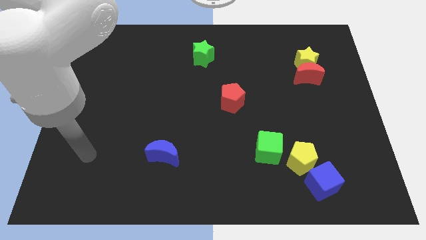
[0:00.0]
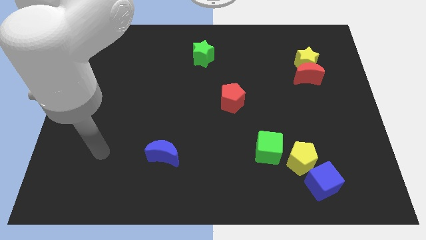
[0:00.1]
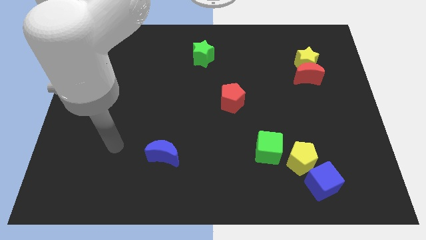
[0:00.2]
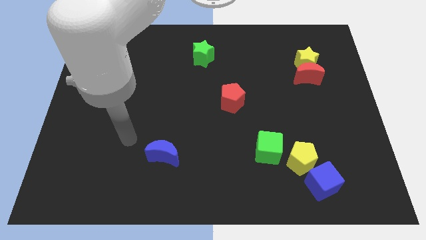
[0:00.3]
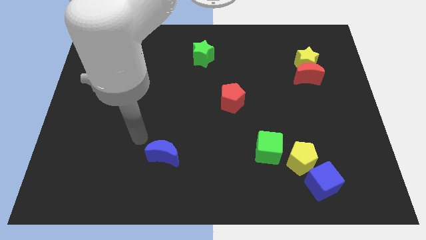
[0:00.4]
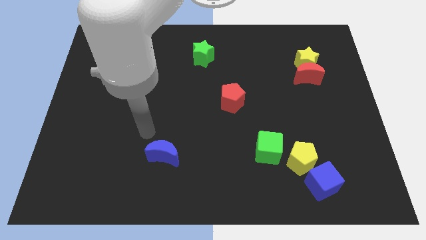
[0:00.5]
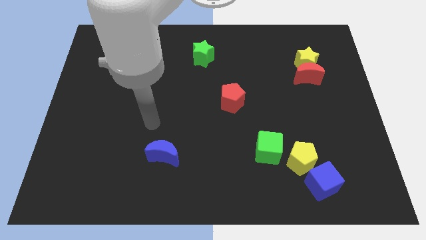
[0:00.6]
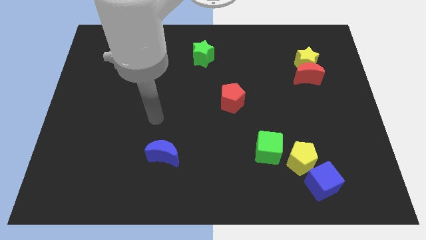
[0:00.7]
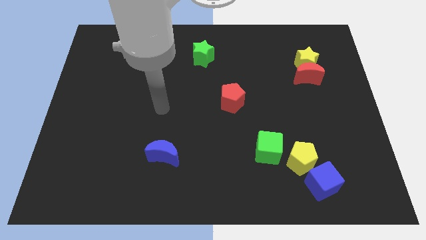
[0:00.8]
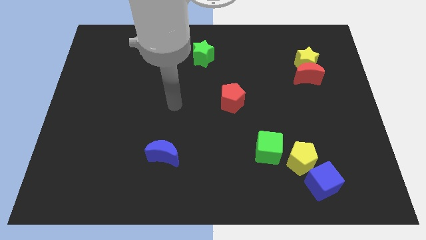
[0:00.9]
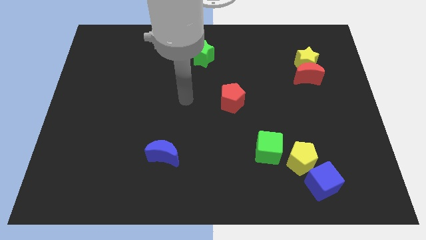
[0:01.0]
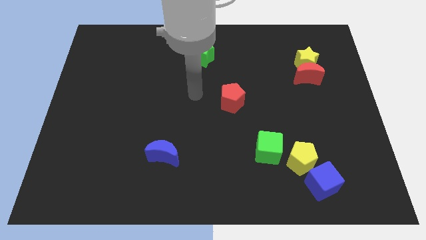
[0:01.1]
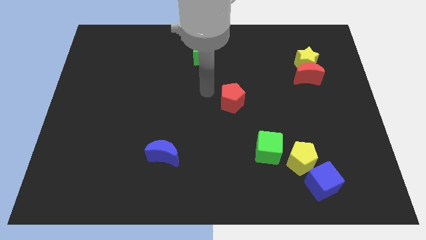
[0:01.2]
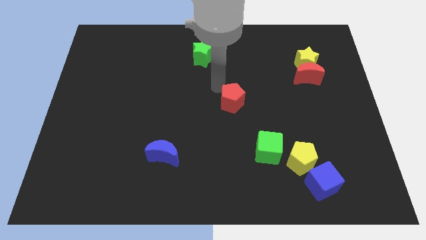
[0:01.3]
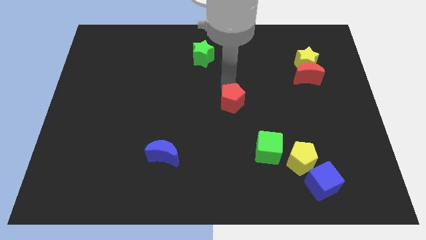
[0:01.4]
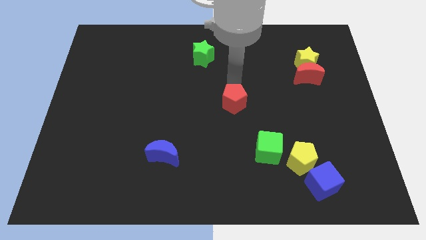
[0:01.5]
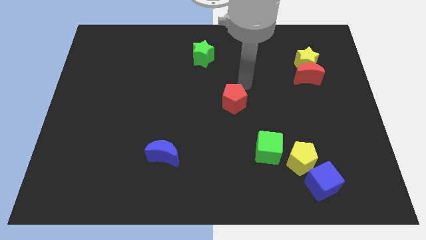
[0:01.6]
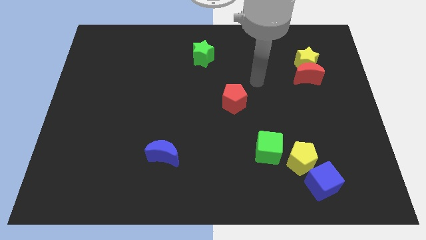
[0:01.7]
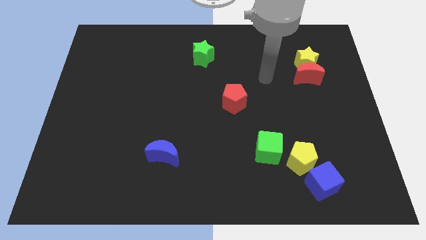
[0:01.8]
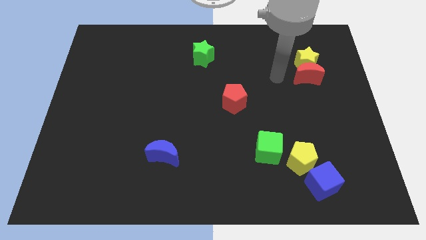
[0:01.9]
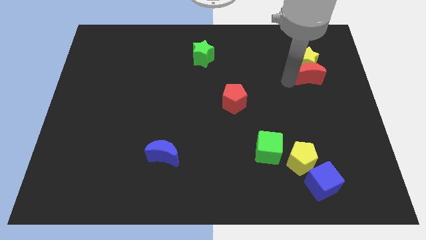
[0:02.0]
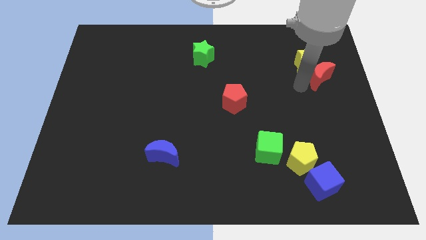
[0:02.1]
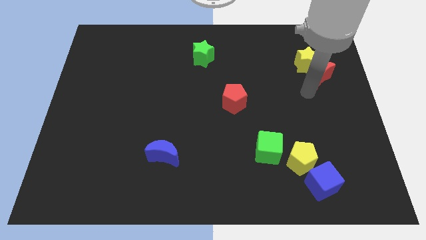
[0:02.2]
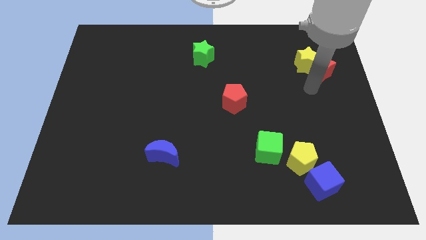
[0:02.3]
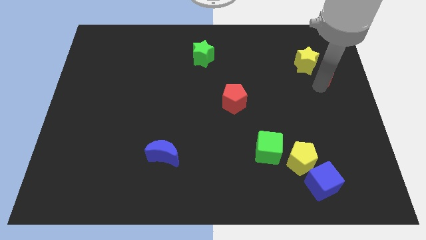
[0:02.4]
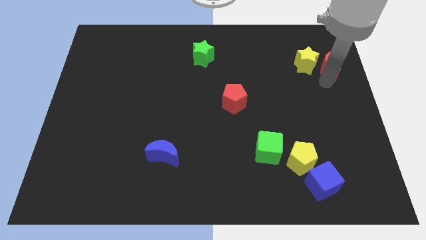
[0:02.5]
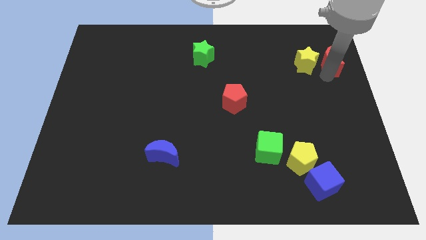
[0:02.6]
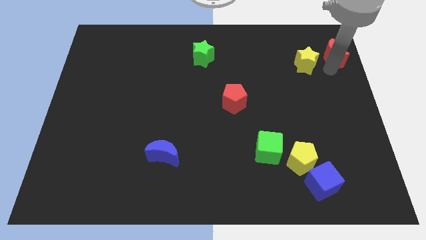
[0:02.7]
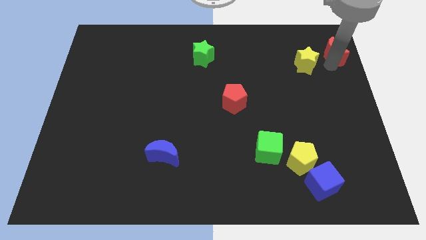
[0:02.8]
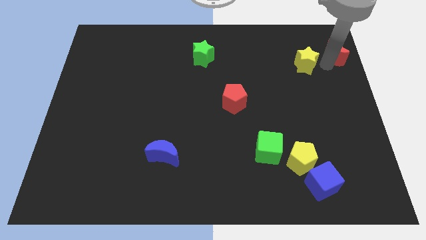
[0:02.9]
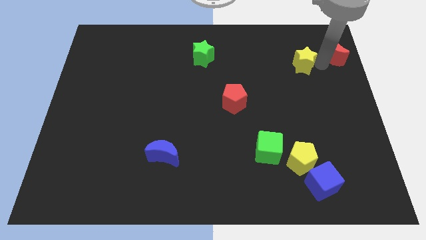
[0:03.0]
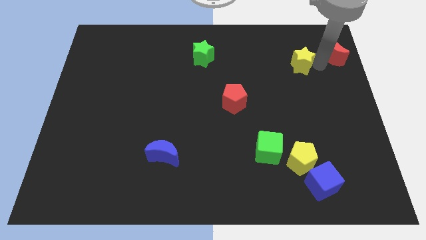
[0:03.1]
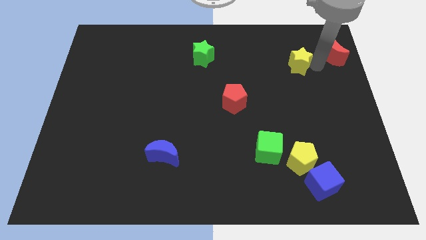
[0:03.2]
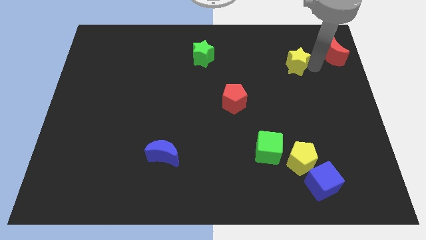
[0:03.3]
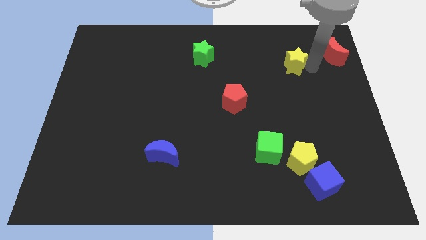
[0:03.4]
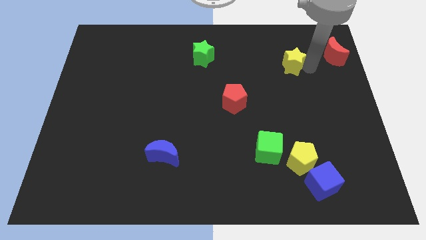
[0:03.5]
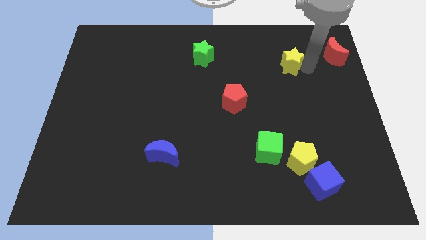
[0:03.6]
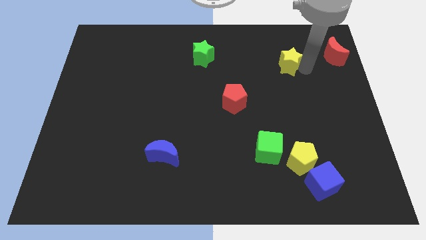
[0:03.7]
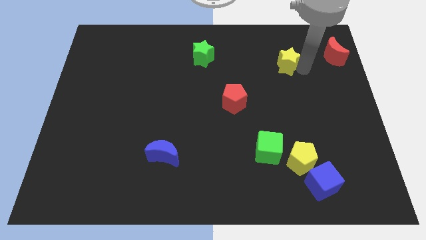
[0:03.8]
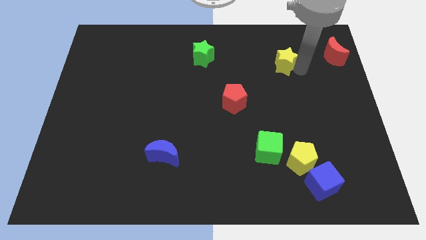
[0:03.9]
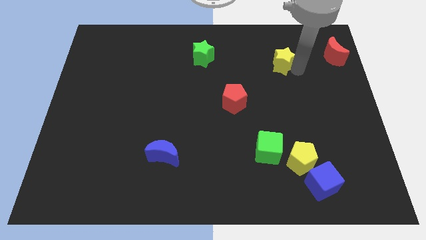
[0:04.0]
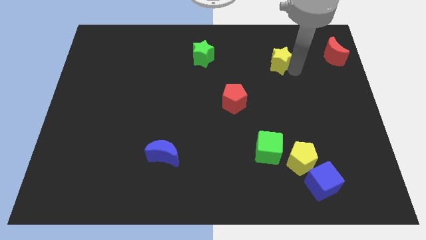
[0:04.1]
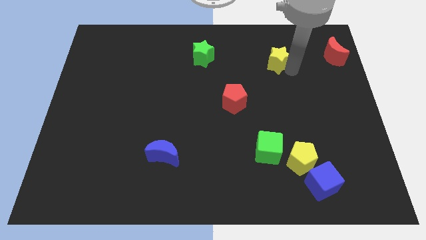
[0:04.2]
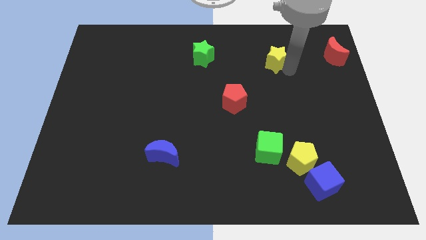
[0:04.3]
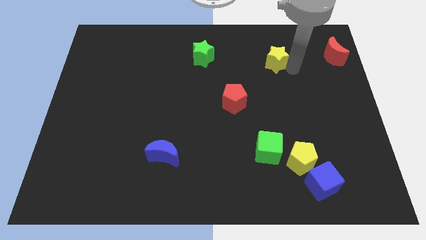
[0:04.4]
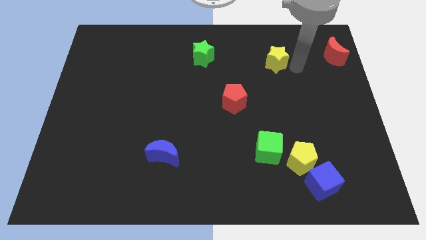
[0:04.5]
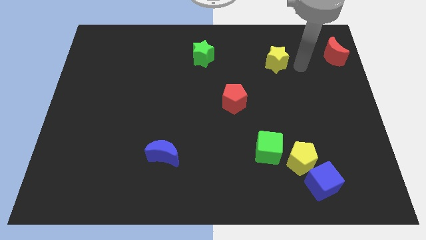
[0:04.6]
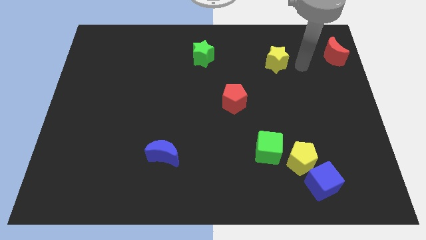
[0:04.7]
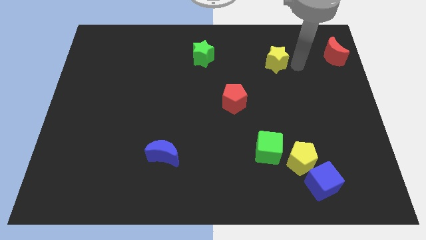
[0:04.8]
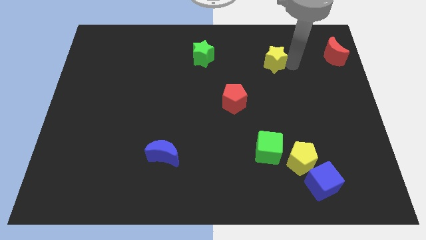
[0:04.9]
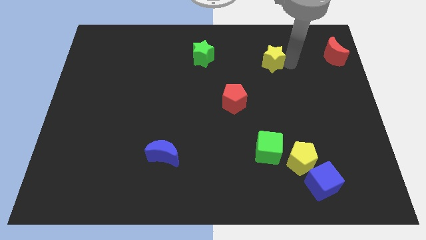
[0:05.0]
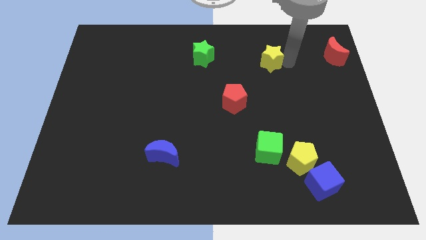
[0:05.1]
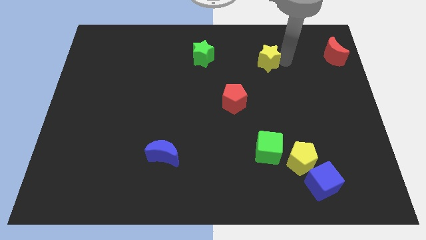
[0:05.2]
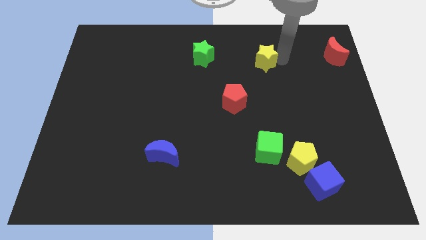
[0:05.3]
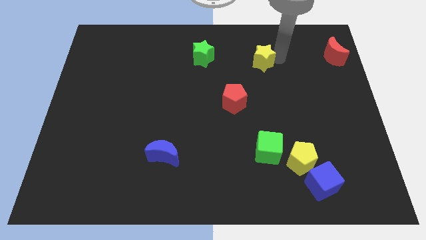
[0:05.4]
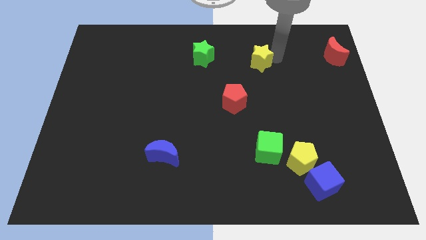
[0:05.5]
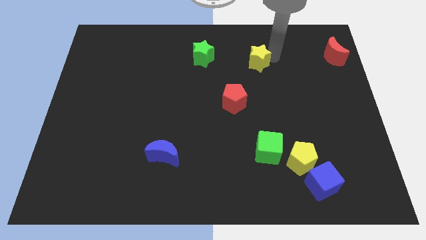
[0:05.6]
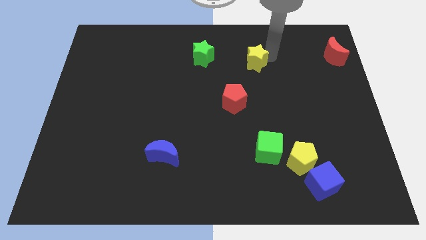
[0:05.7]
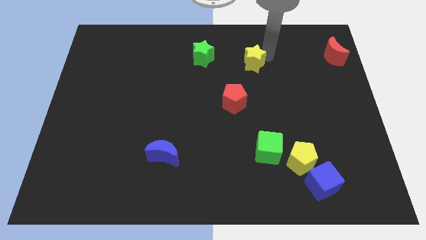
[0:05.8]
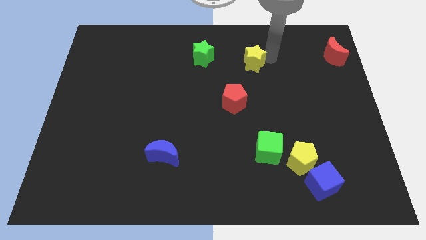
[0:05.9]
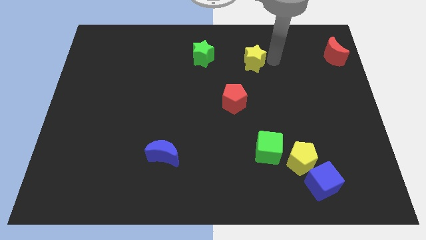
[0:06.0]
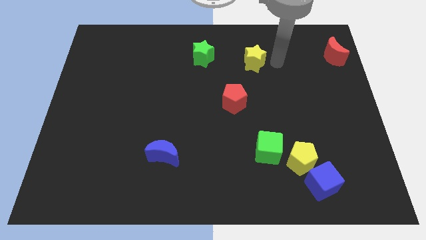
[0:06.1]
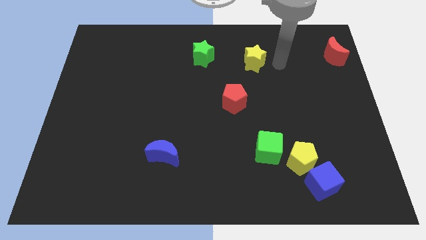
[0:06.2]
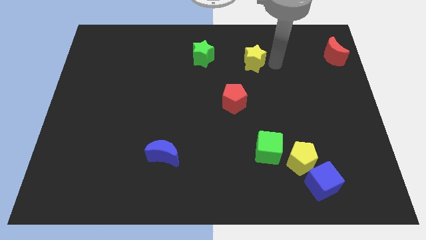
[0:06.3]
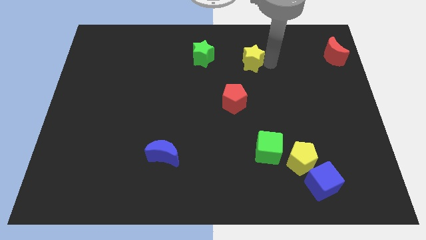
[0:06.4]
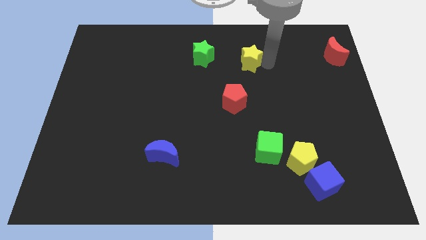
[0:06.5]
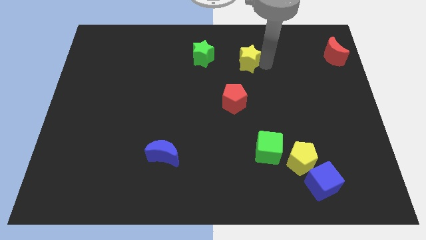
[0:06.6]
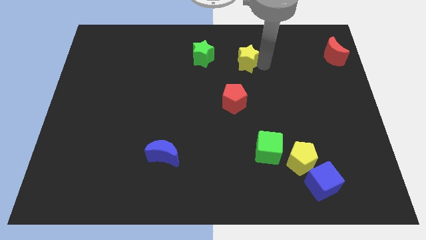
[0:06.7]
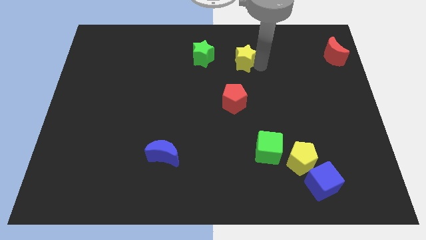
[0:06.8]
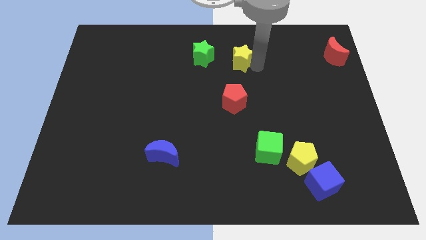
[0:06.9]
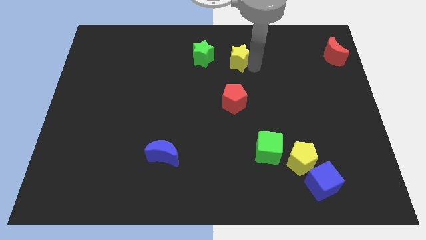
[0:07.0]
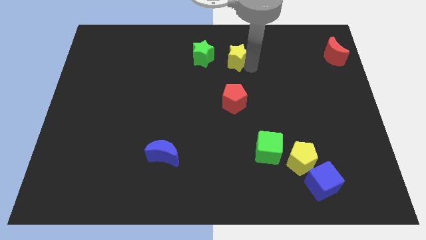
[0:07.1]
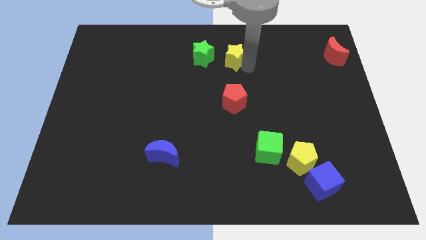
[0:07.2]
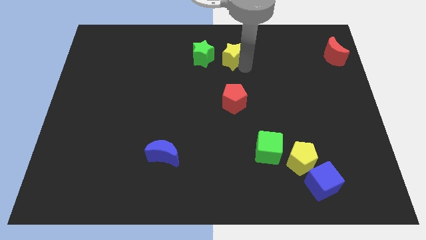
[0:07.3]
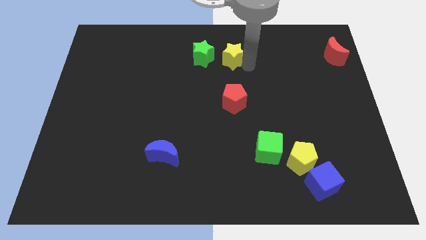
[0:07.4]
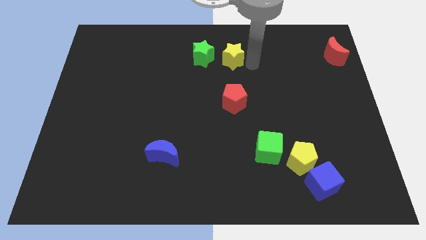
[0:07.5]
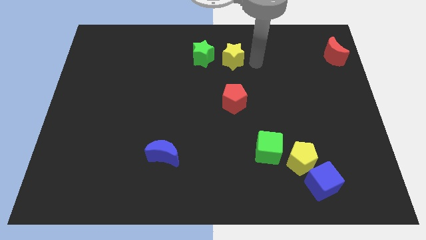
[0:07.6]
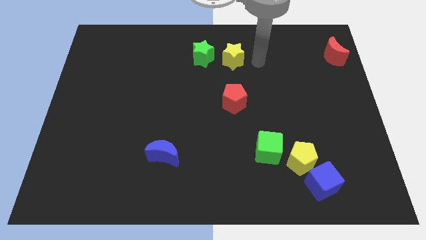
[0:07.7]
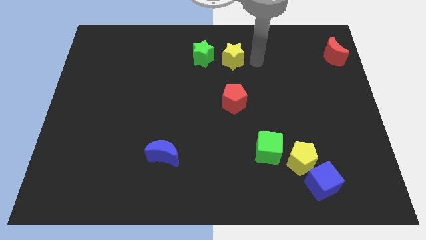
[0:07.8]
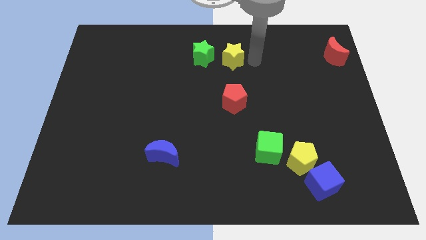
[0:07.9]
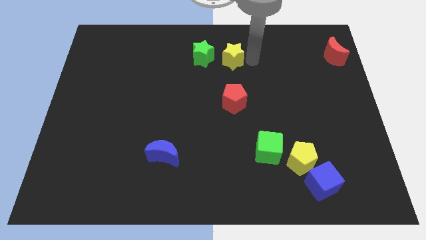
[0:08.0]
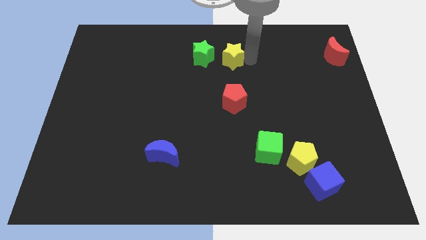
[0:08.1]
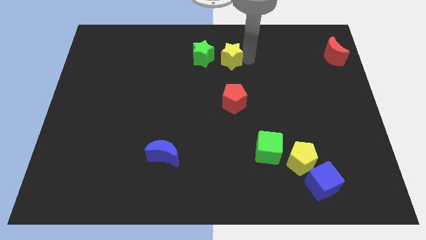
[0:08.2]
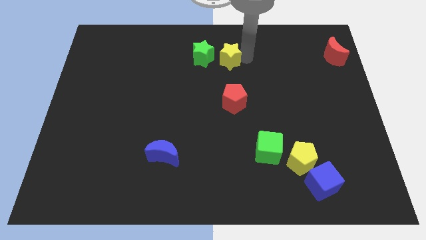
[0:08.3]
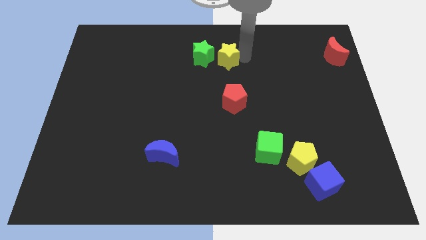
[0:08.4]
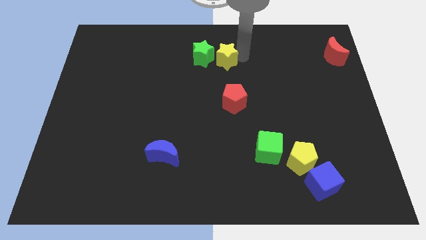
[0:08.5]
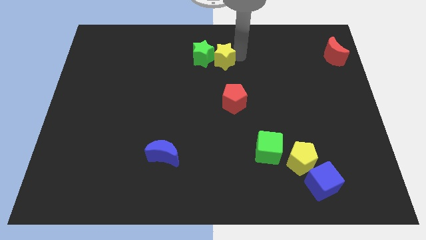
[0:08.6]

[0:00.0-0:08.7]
move the yellow star next to the green star
